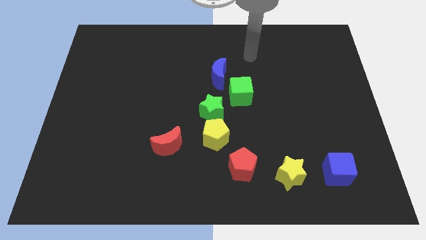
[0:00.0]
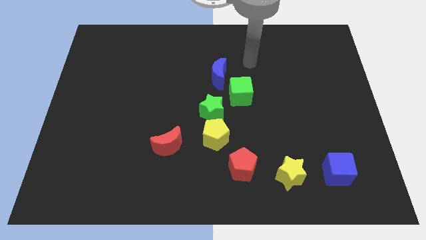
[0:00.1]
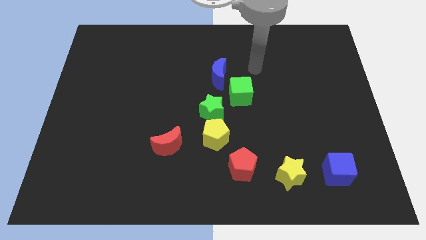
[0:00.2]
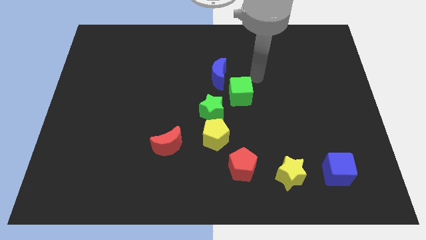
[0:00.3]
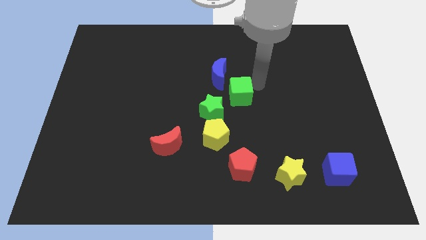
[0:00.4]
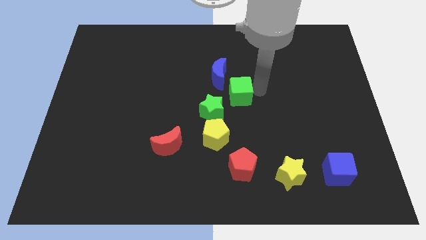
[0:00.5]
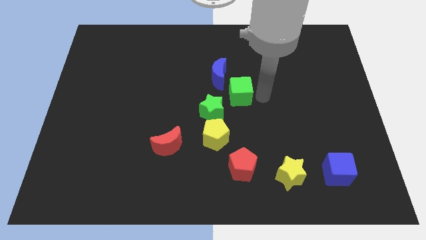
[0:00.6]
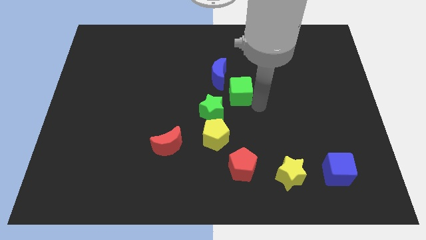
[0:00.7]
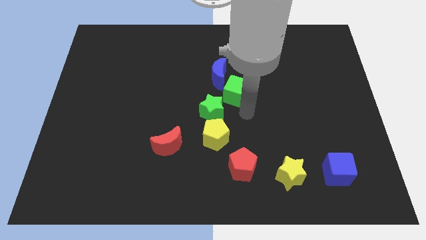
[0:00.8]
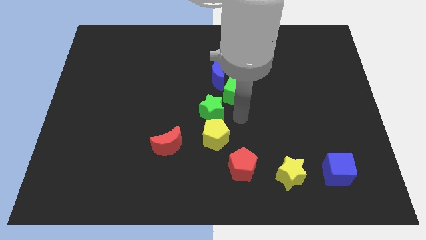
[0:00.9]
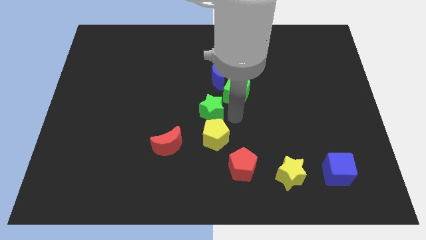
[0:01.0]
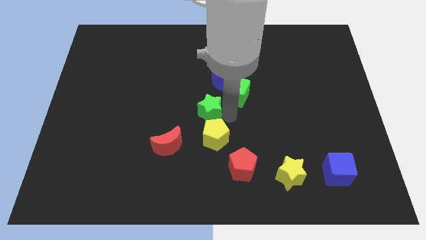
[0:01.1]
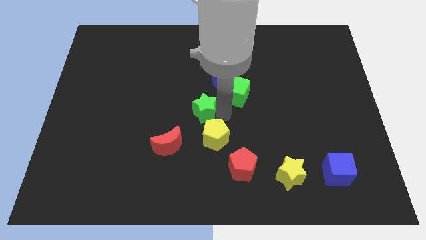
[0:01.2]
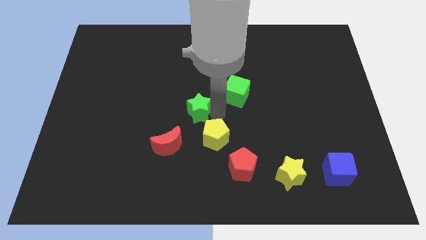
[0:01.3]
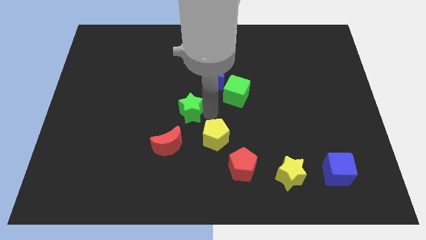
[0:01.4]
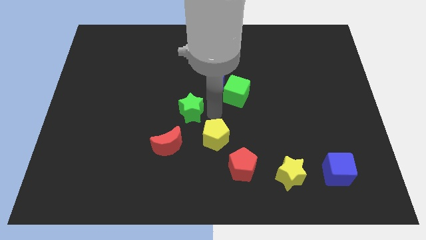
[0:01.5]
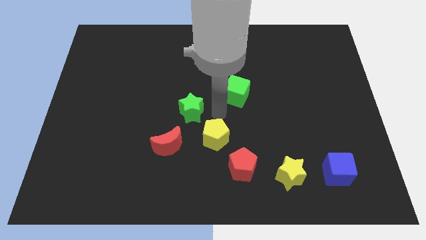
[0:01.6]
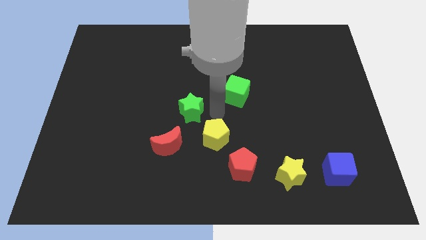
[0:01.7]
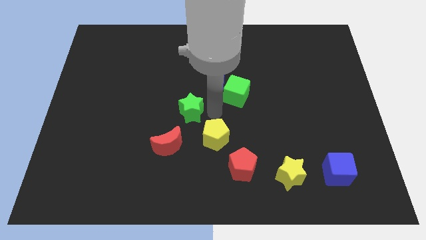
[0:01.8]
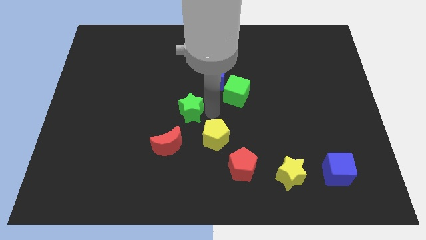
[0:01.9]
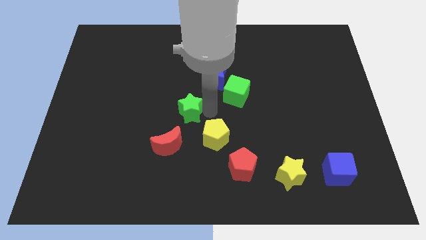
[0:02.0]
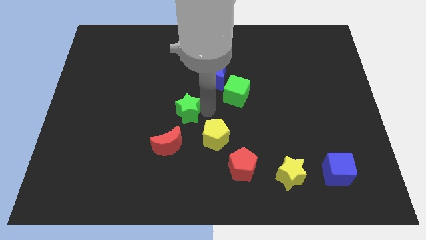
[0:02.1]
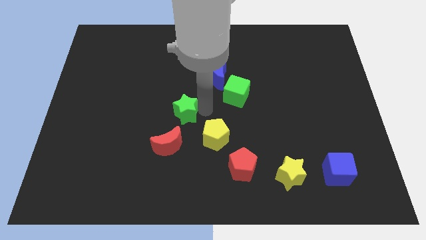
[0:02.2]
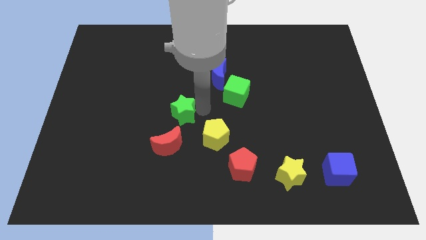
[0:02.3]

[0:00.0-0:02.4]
pull the green star apart from the yellow pentagon and green cube

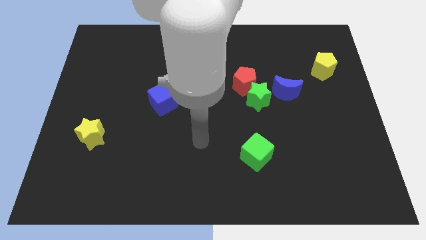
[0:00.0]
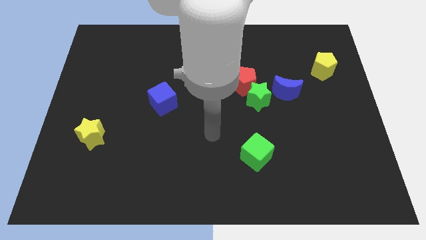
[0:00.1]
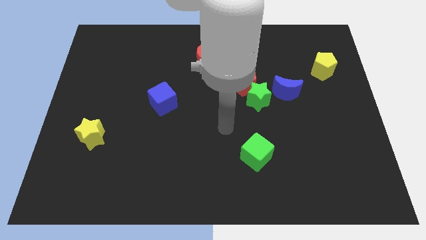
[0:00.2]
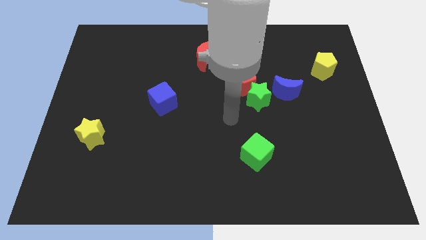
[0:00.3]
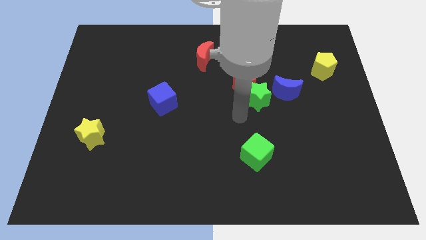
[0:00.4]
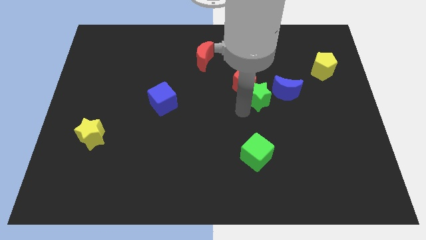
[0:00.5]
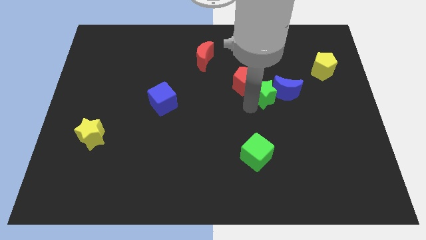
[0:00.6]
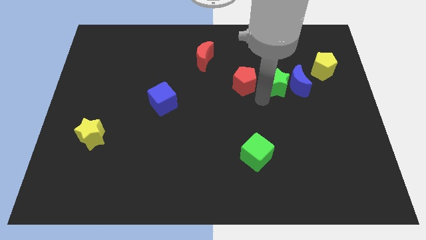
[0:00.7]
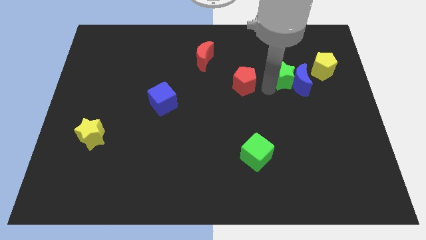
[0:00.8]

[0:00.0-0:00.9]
pull the red pentagon apart from the green star

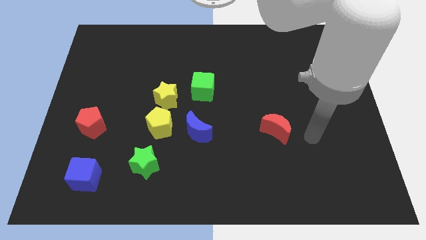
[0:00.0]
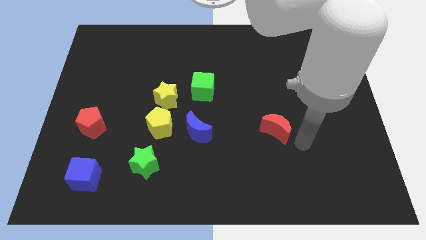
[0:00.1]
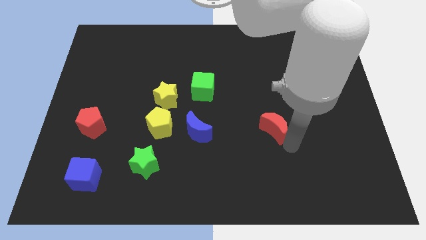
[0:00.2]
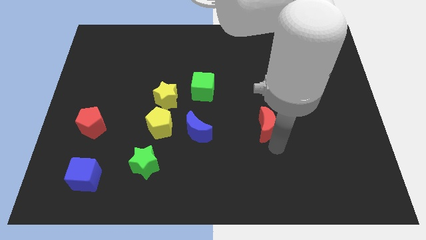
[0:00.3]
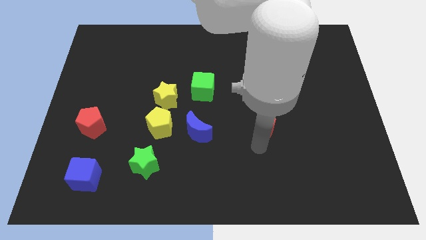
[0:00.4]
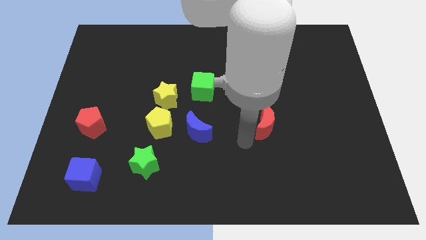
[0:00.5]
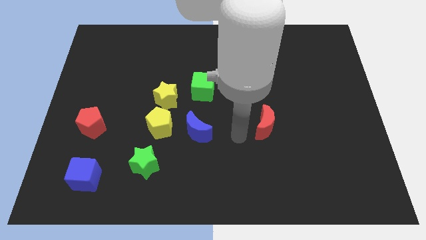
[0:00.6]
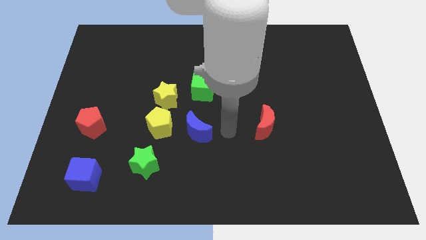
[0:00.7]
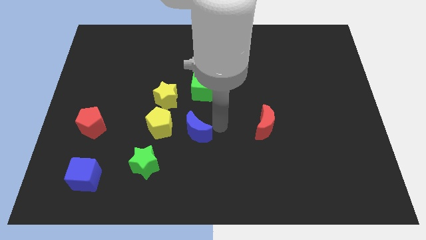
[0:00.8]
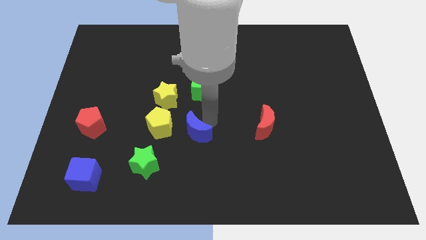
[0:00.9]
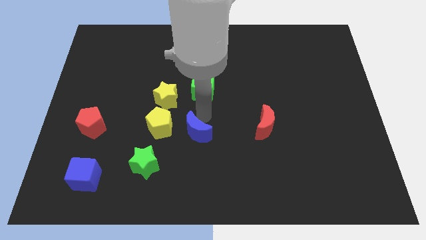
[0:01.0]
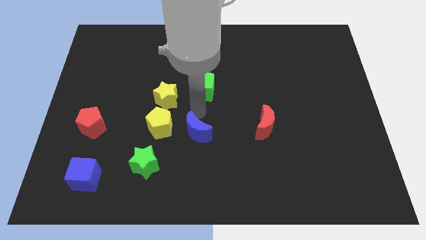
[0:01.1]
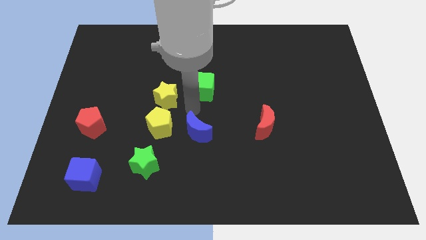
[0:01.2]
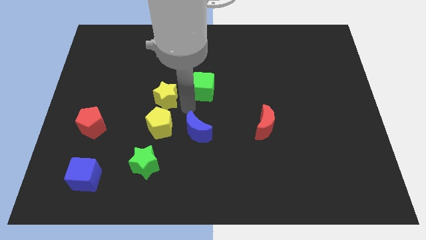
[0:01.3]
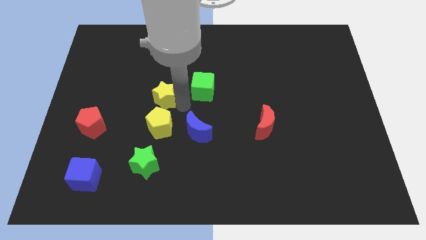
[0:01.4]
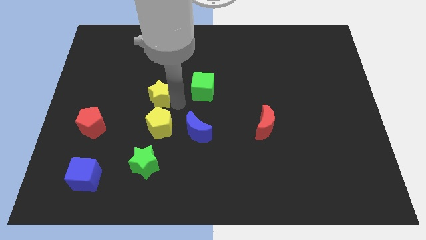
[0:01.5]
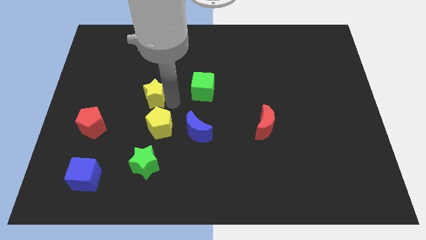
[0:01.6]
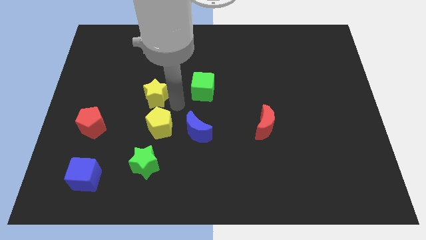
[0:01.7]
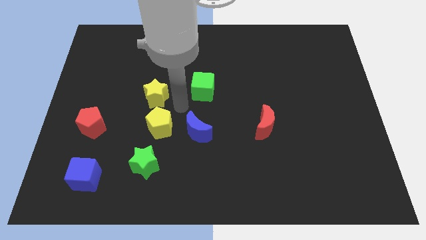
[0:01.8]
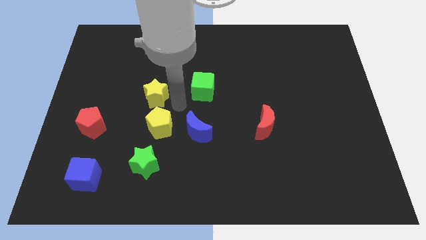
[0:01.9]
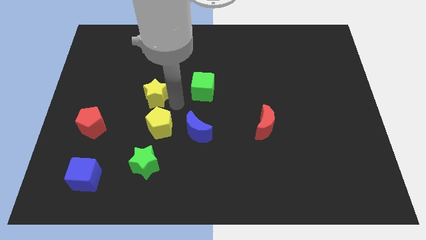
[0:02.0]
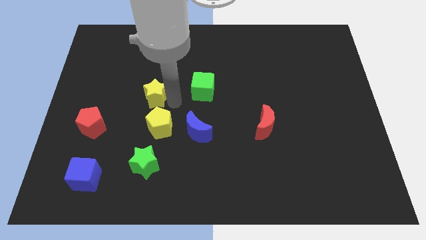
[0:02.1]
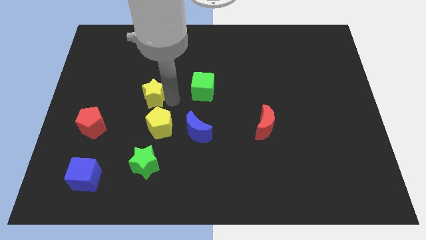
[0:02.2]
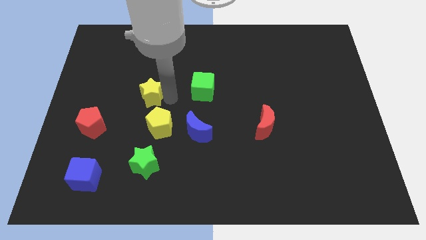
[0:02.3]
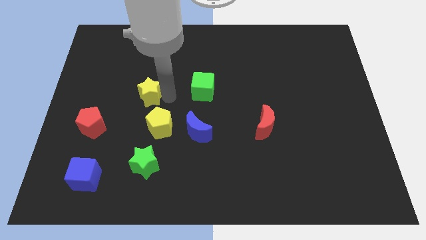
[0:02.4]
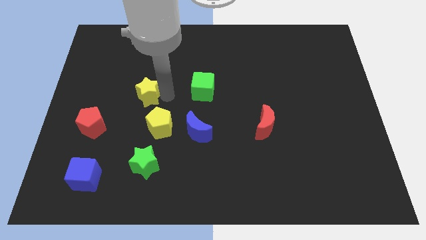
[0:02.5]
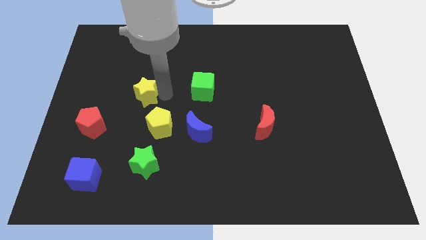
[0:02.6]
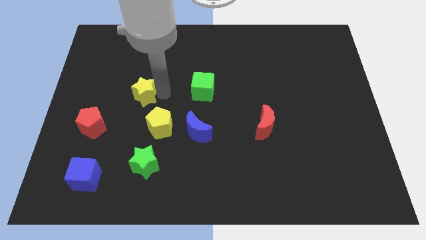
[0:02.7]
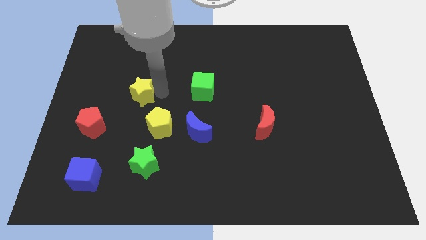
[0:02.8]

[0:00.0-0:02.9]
move the yellow star away from the yellow pentagon and green cube

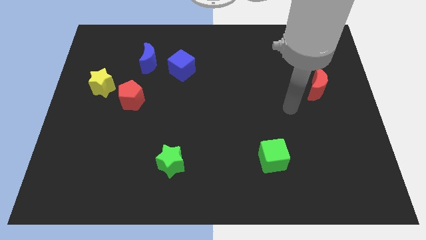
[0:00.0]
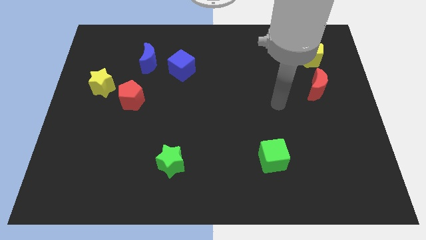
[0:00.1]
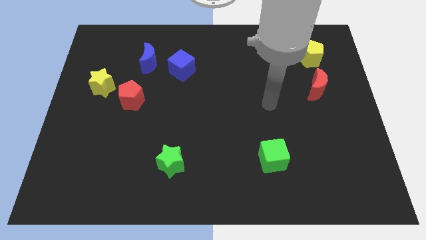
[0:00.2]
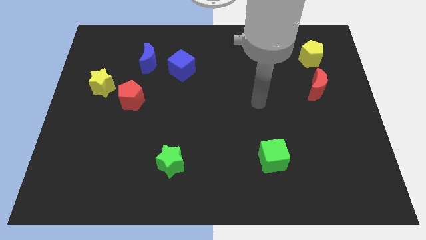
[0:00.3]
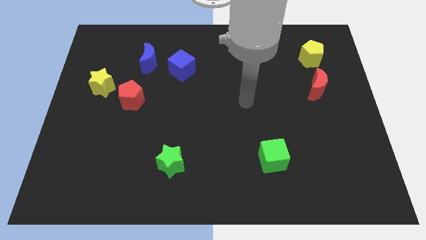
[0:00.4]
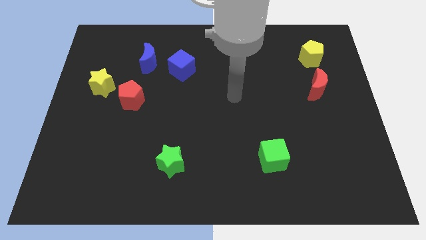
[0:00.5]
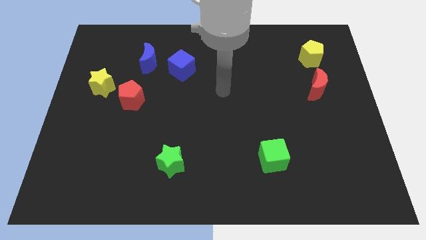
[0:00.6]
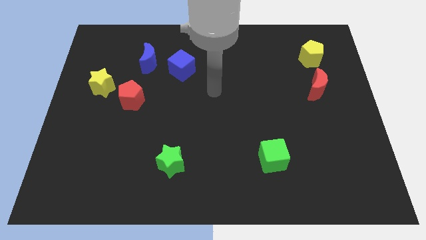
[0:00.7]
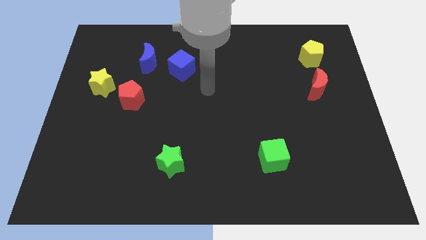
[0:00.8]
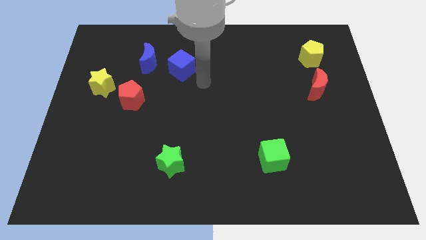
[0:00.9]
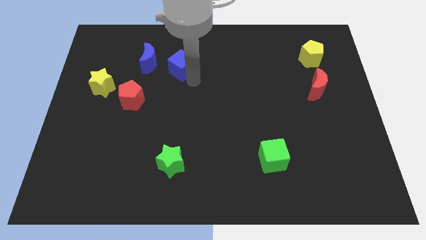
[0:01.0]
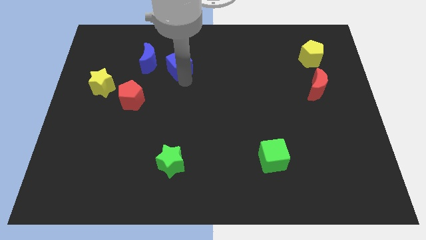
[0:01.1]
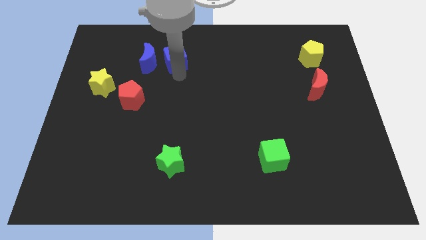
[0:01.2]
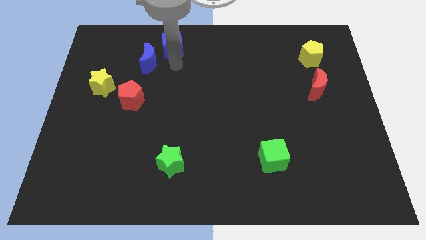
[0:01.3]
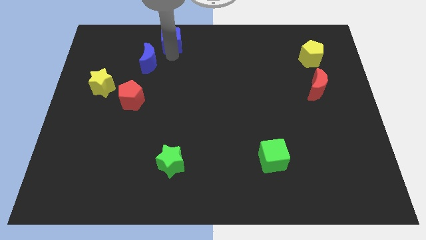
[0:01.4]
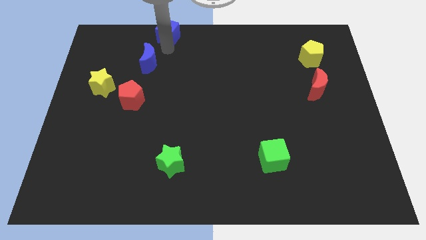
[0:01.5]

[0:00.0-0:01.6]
pull the blue moon apart from the blue cube

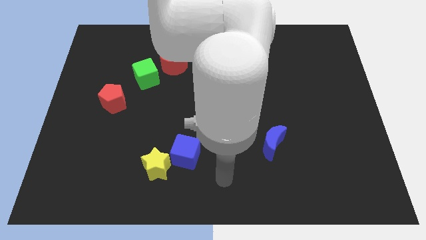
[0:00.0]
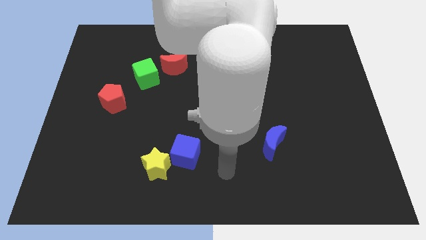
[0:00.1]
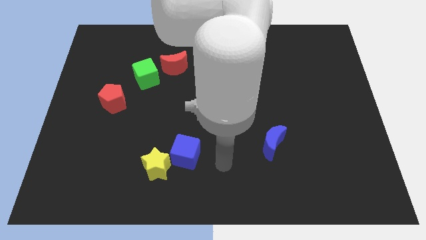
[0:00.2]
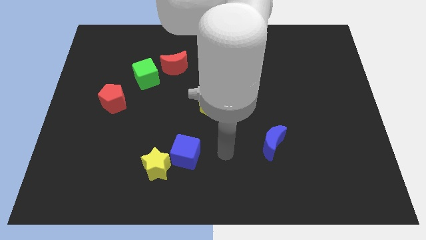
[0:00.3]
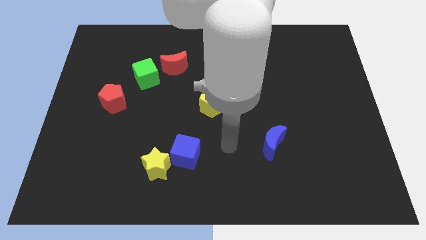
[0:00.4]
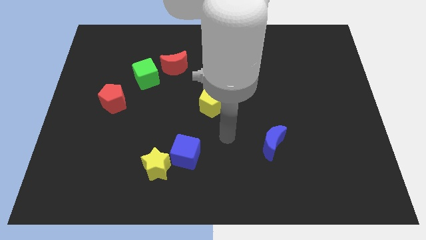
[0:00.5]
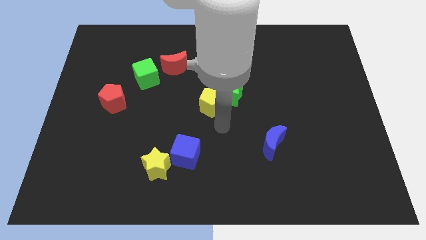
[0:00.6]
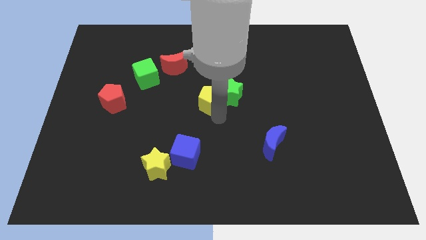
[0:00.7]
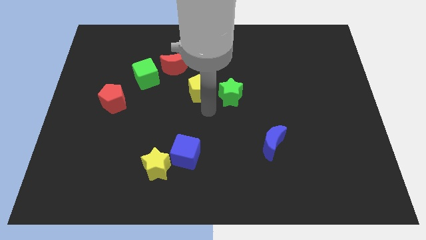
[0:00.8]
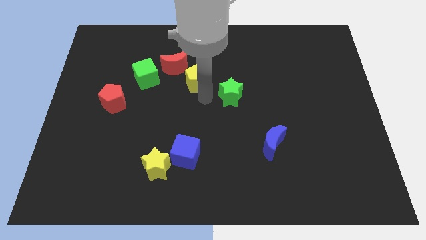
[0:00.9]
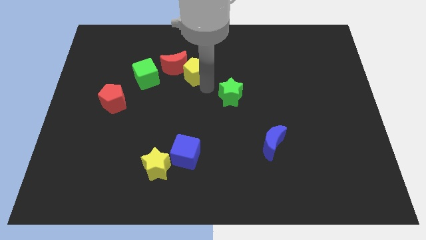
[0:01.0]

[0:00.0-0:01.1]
pull the green star apart from the yellow pentagon

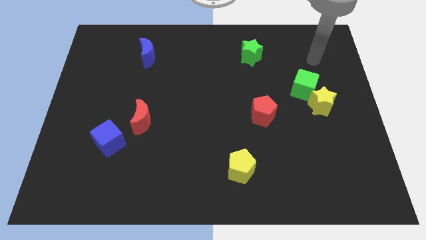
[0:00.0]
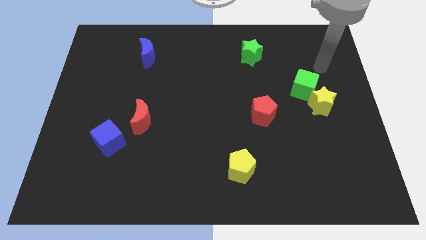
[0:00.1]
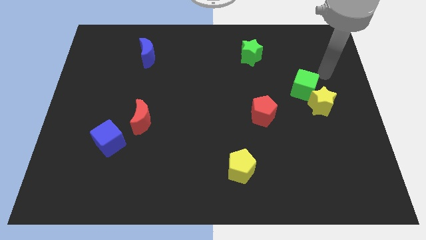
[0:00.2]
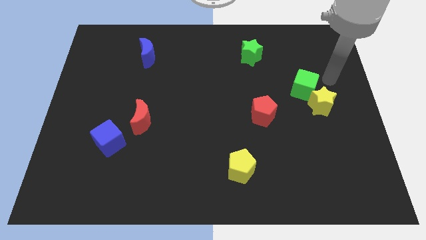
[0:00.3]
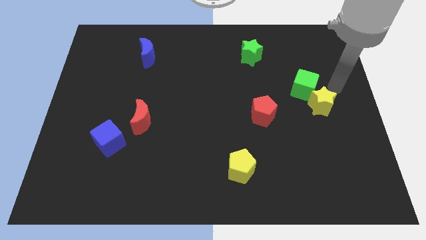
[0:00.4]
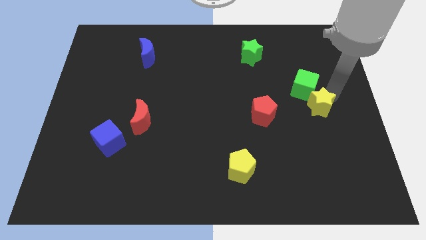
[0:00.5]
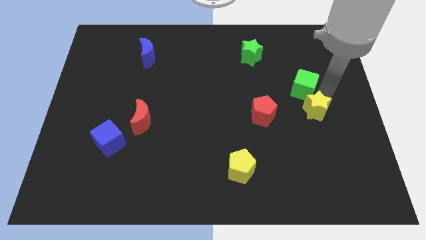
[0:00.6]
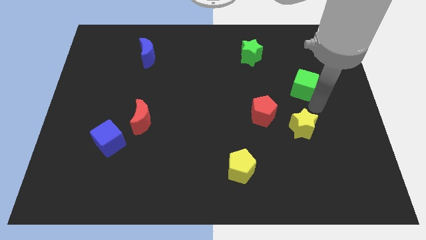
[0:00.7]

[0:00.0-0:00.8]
move the green cube away from the yellow star
